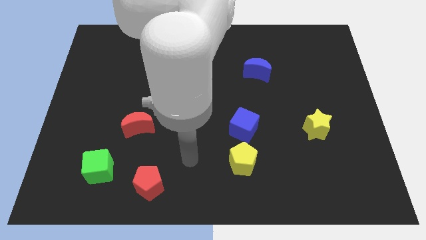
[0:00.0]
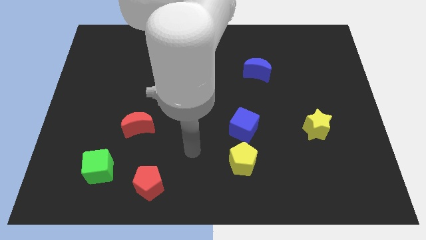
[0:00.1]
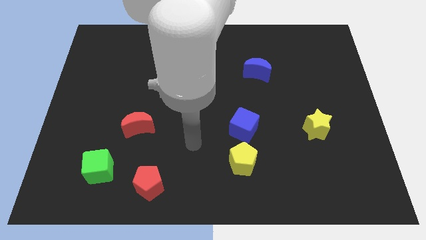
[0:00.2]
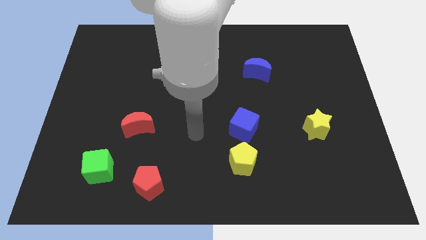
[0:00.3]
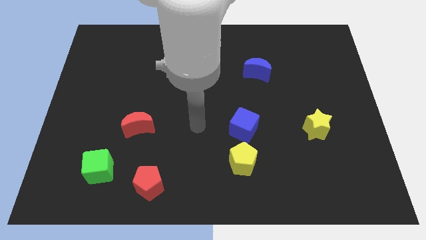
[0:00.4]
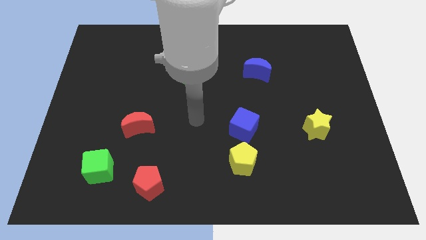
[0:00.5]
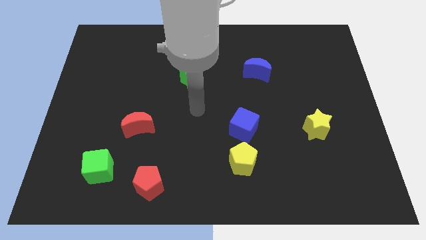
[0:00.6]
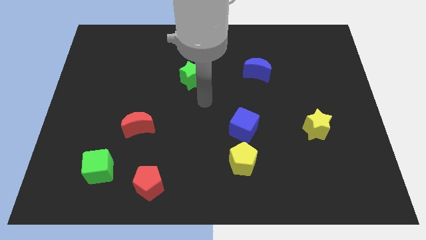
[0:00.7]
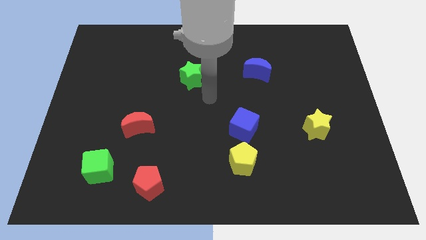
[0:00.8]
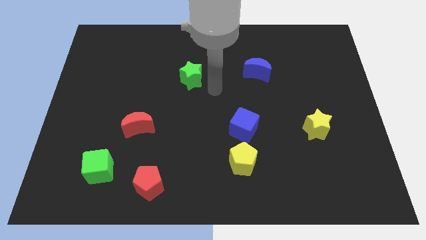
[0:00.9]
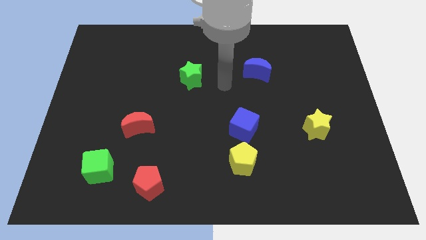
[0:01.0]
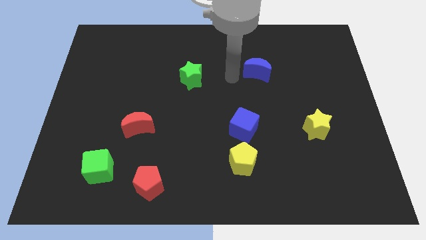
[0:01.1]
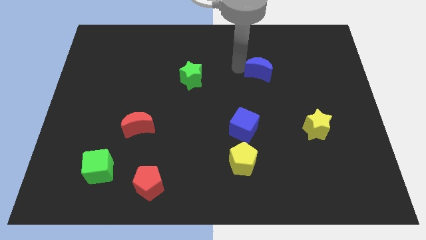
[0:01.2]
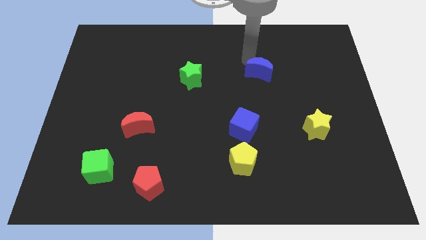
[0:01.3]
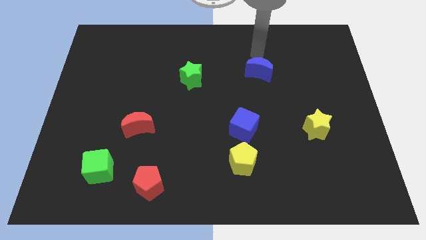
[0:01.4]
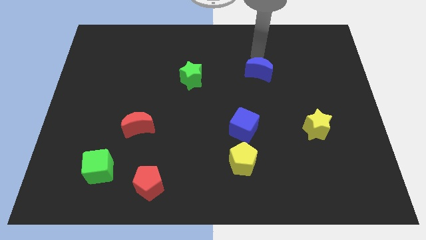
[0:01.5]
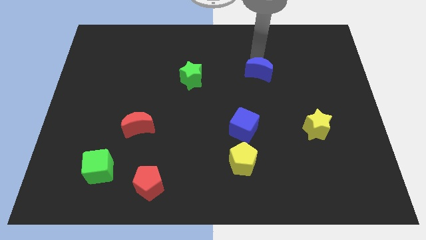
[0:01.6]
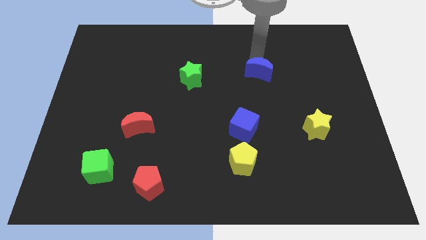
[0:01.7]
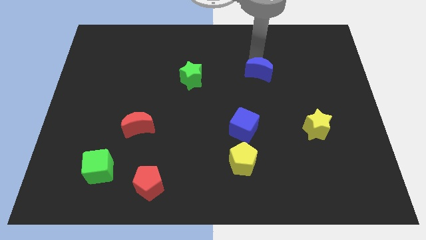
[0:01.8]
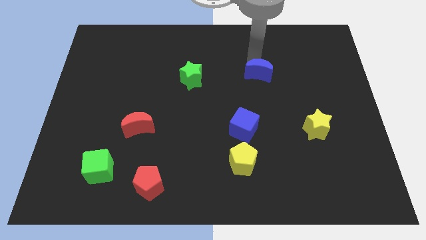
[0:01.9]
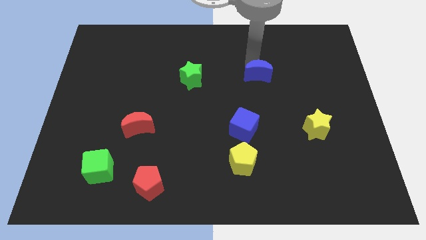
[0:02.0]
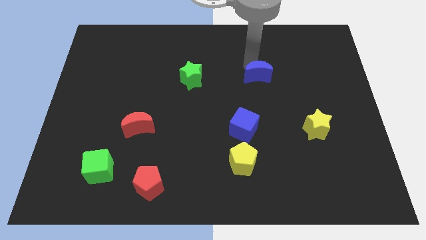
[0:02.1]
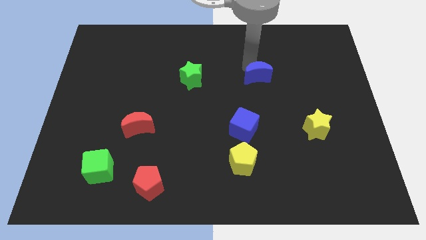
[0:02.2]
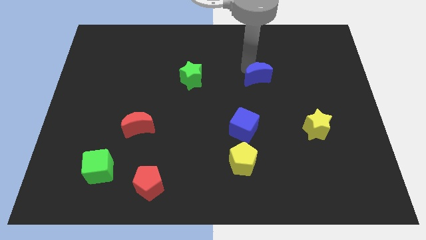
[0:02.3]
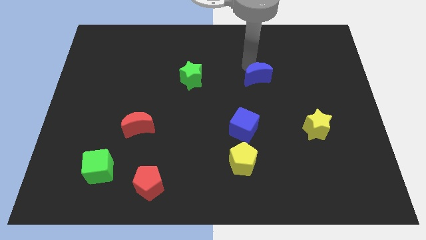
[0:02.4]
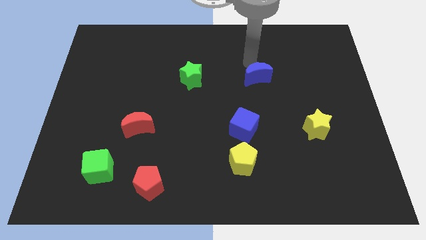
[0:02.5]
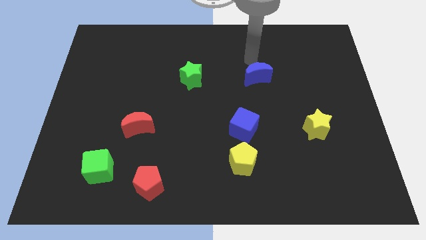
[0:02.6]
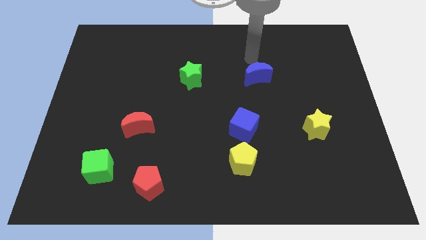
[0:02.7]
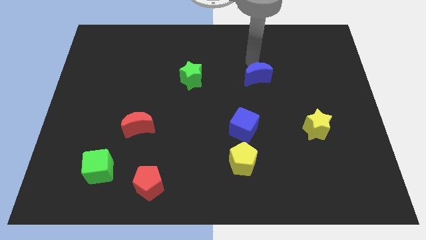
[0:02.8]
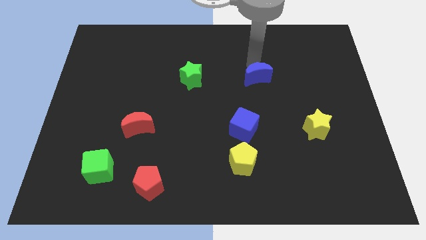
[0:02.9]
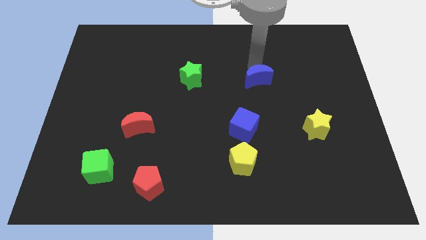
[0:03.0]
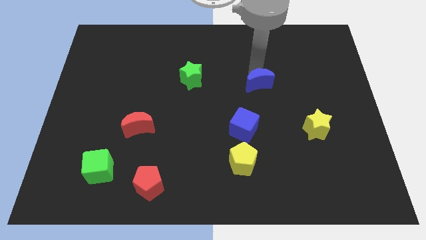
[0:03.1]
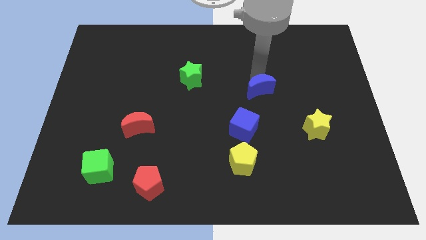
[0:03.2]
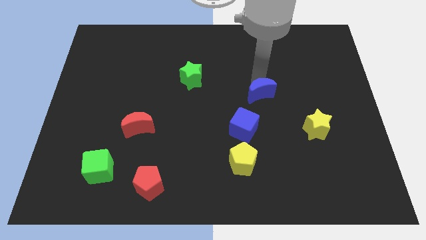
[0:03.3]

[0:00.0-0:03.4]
slide the blue moon slightly down

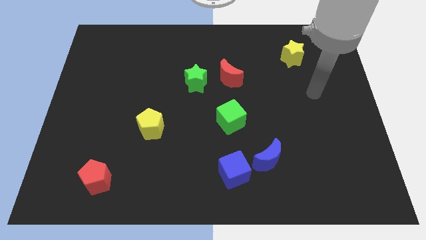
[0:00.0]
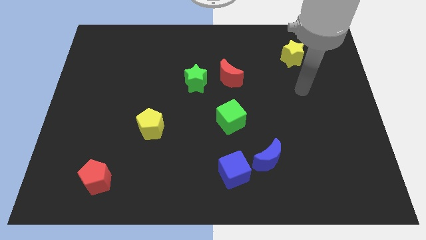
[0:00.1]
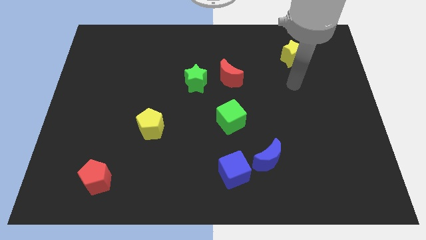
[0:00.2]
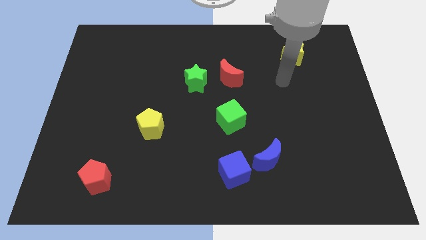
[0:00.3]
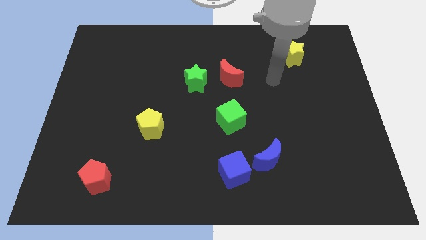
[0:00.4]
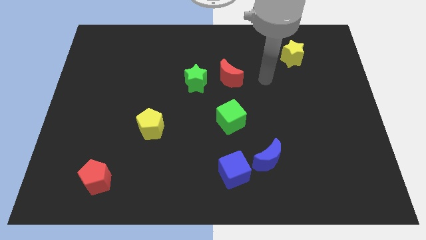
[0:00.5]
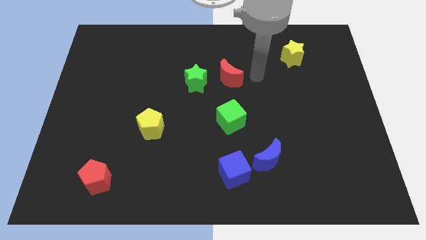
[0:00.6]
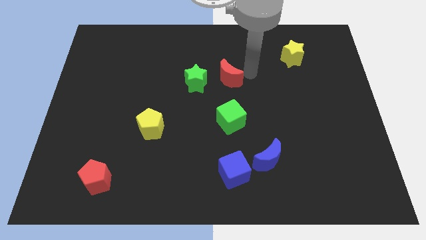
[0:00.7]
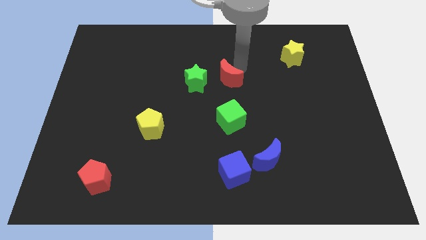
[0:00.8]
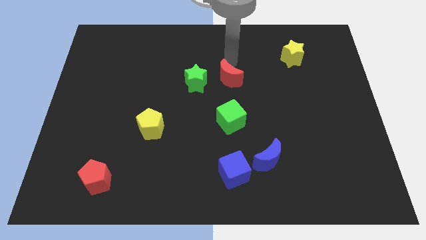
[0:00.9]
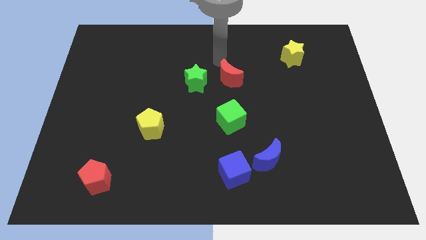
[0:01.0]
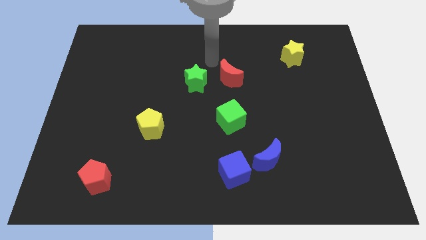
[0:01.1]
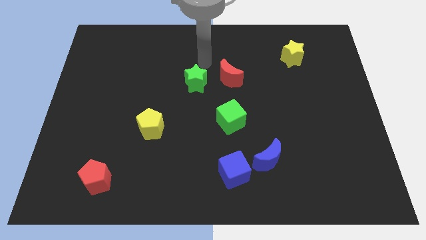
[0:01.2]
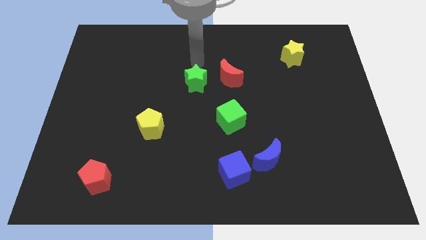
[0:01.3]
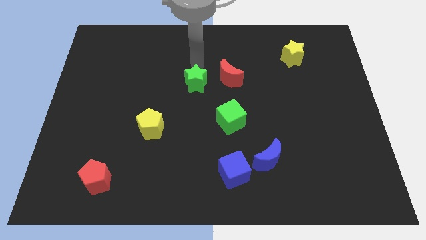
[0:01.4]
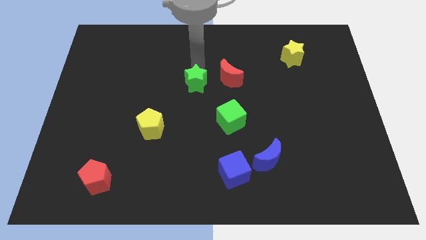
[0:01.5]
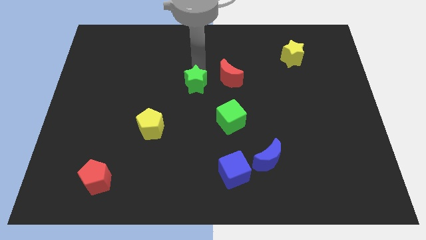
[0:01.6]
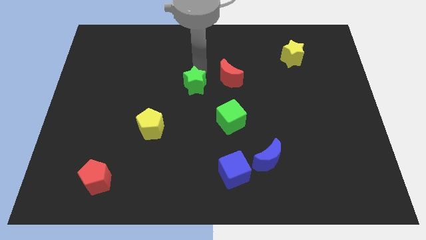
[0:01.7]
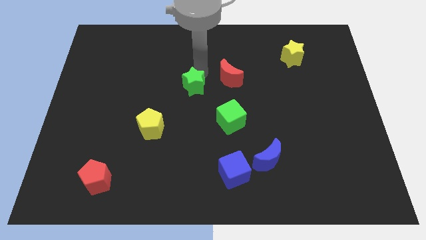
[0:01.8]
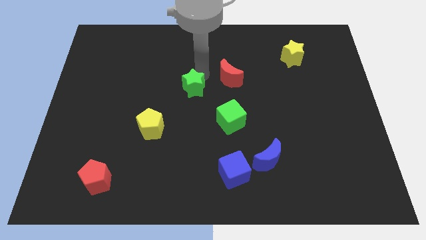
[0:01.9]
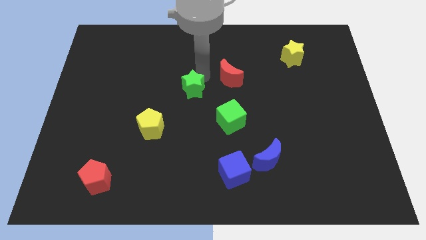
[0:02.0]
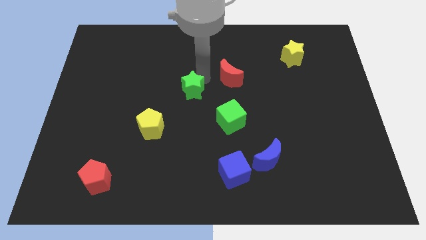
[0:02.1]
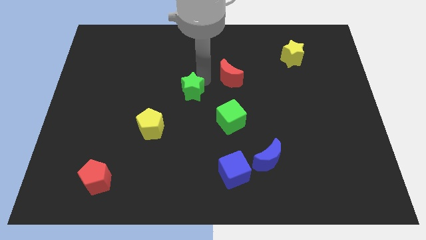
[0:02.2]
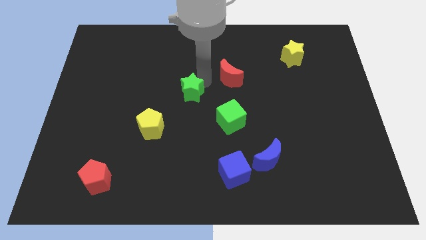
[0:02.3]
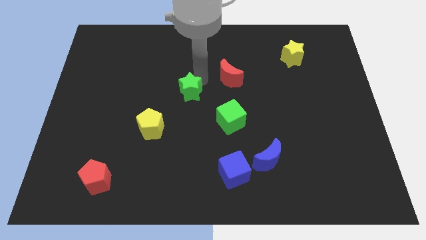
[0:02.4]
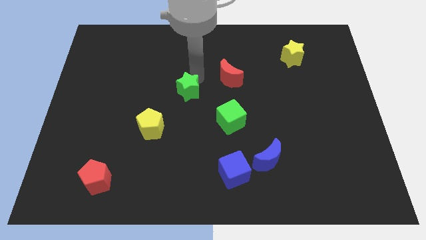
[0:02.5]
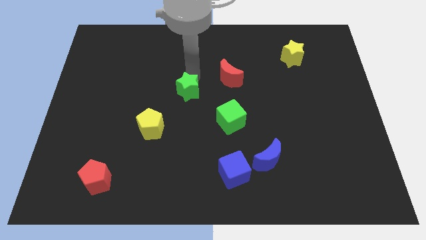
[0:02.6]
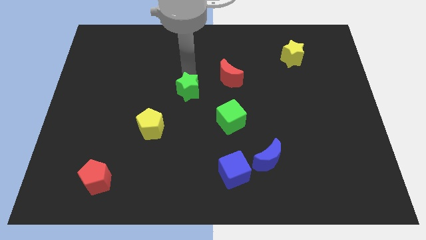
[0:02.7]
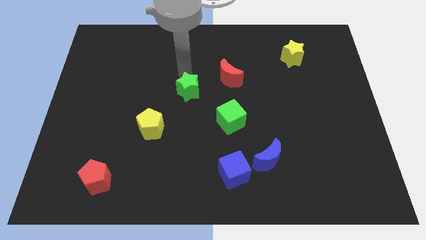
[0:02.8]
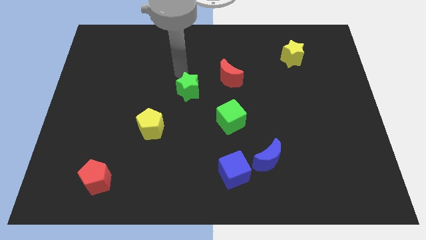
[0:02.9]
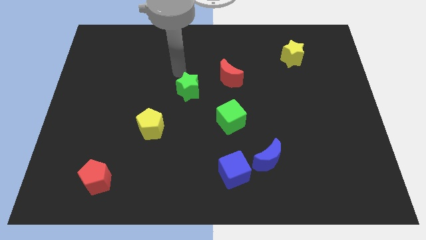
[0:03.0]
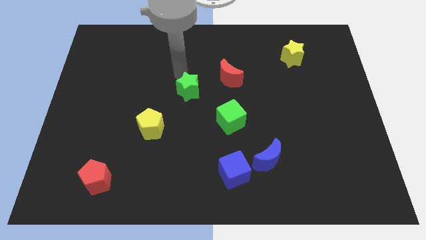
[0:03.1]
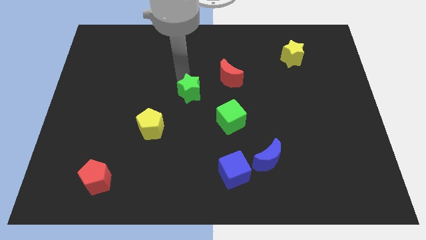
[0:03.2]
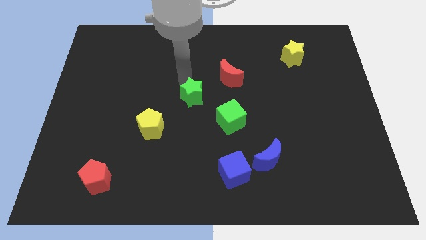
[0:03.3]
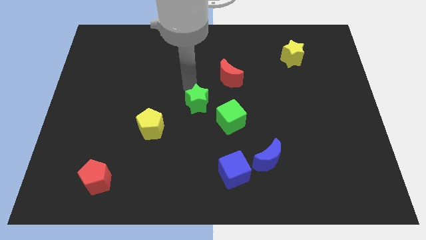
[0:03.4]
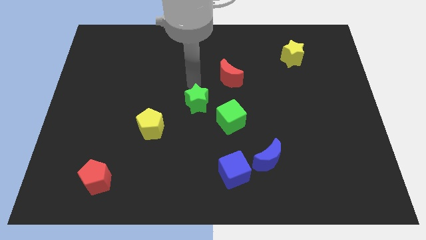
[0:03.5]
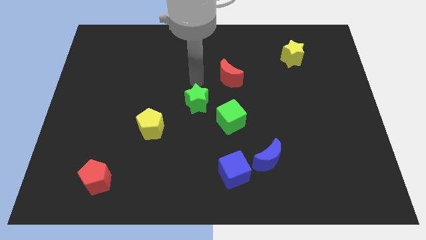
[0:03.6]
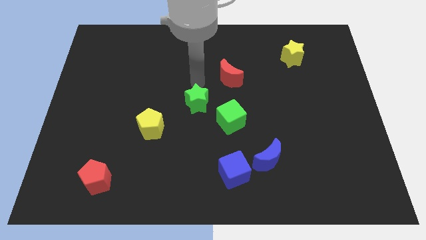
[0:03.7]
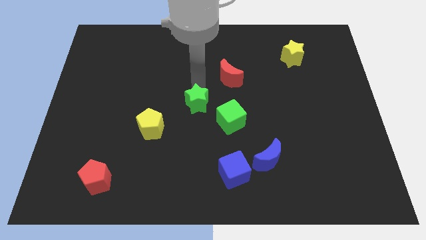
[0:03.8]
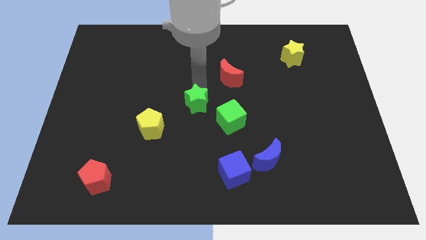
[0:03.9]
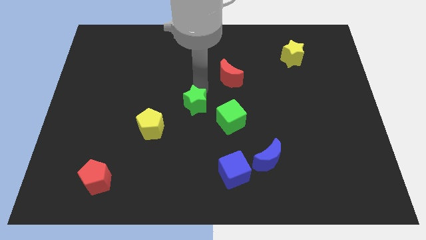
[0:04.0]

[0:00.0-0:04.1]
push the green star down a little

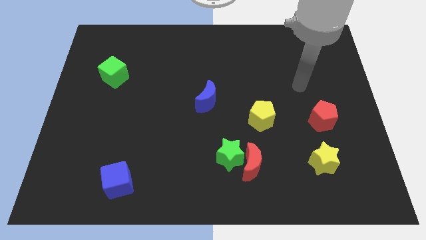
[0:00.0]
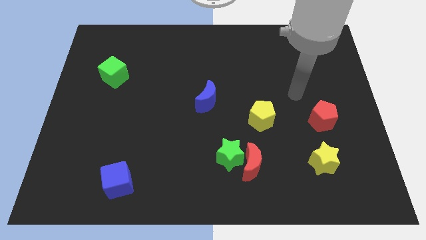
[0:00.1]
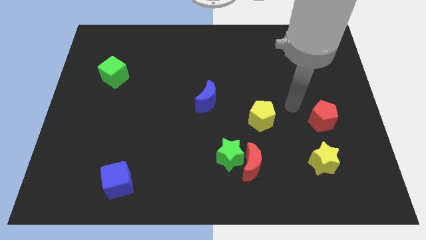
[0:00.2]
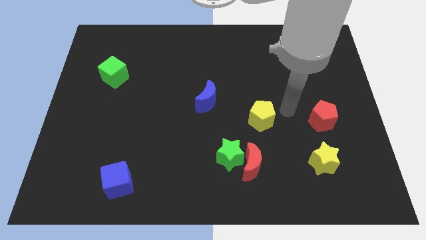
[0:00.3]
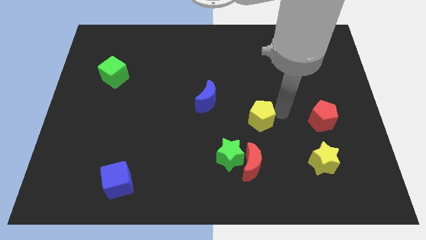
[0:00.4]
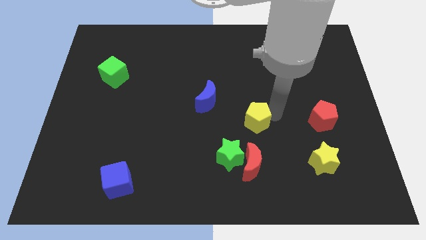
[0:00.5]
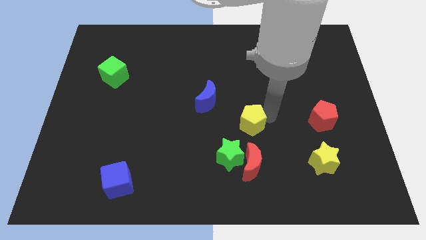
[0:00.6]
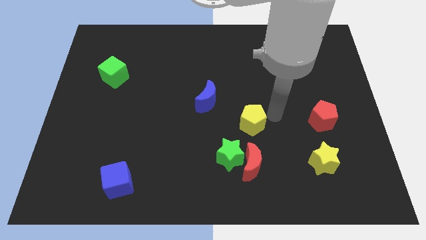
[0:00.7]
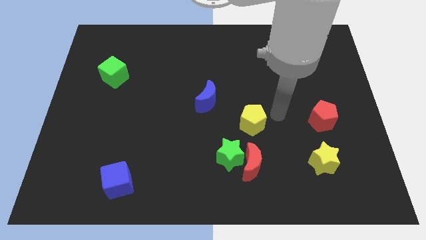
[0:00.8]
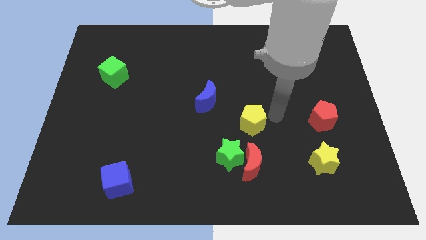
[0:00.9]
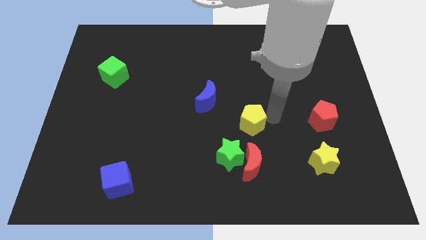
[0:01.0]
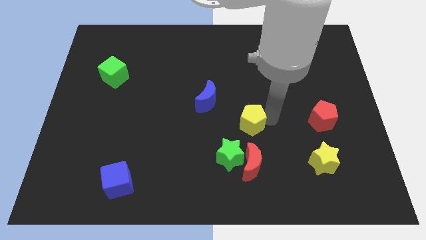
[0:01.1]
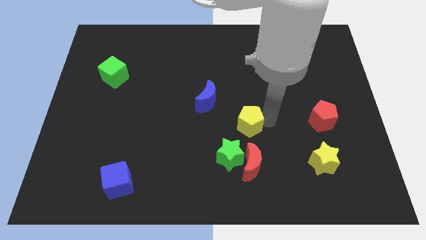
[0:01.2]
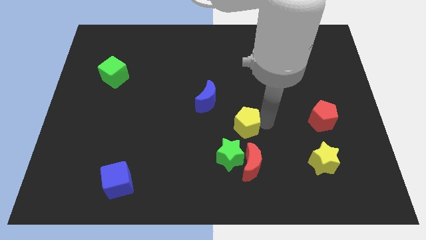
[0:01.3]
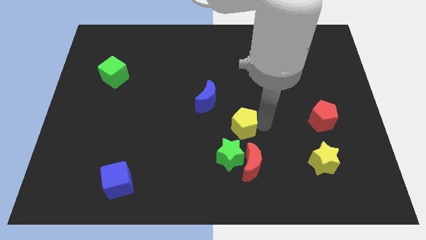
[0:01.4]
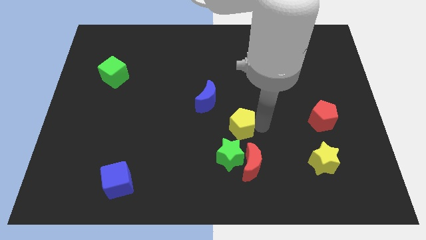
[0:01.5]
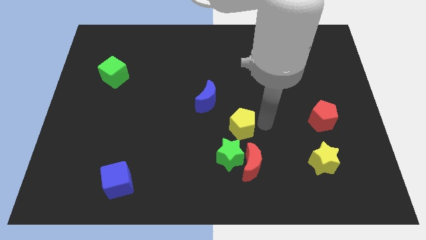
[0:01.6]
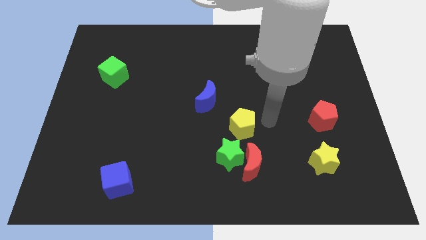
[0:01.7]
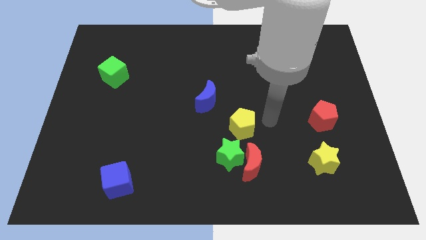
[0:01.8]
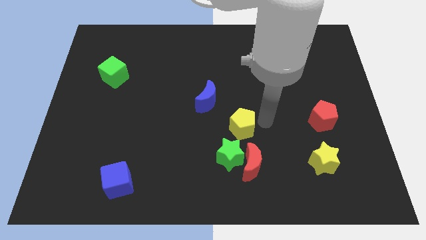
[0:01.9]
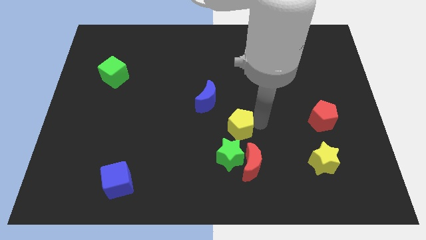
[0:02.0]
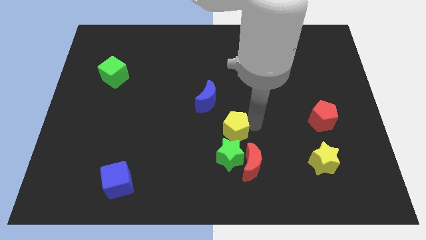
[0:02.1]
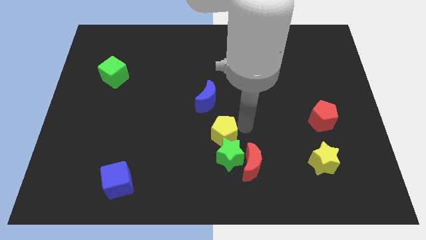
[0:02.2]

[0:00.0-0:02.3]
slide the yellow pentagon a little down and then left
